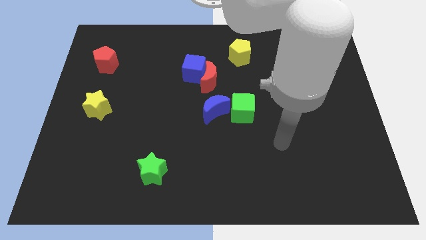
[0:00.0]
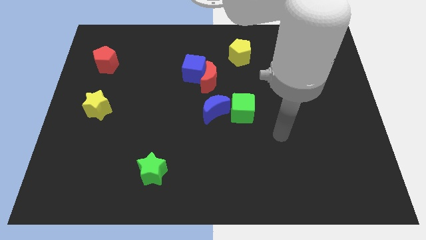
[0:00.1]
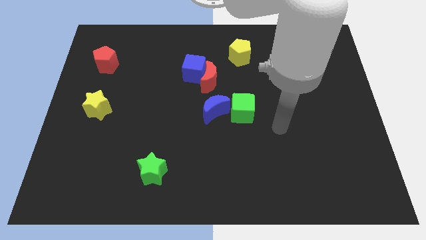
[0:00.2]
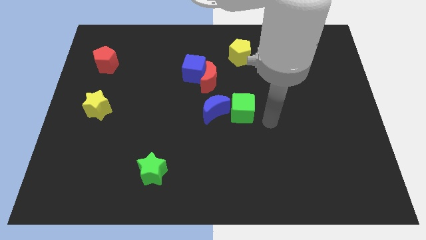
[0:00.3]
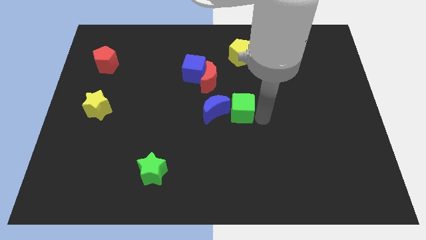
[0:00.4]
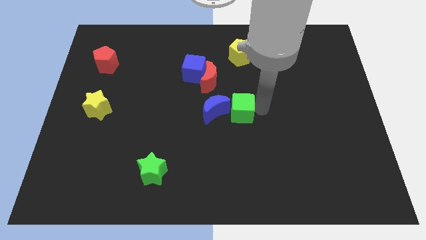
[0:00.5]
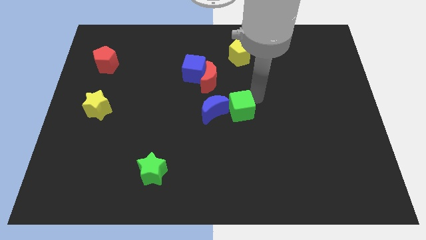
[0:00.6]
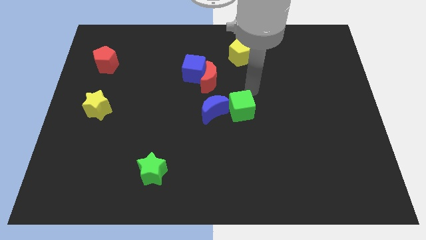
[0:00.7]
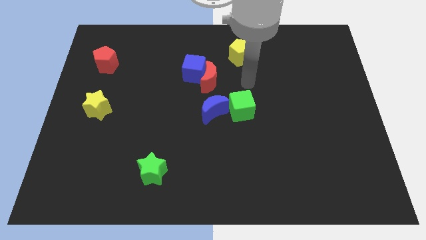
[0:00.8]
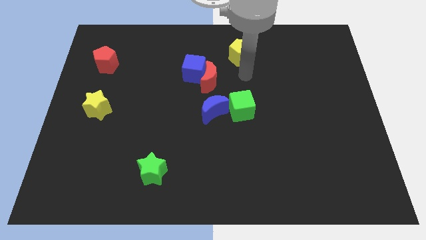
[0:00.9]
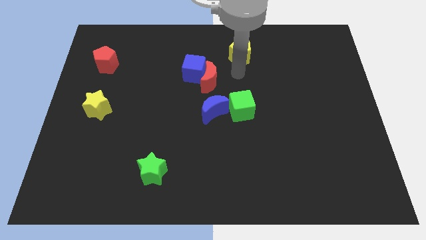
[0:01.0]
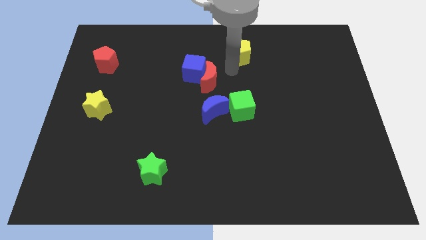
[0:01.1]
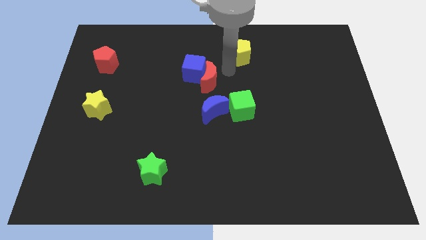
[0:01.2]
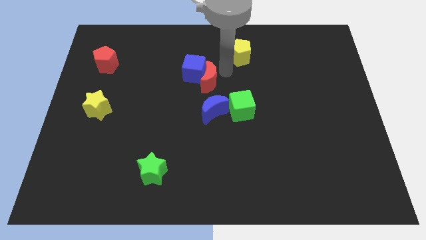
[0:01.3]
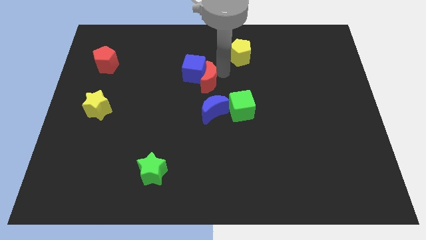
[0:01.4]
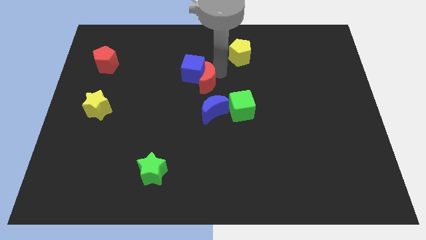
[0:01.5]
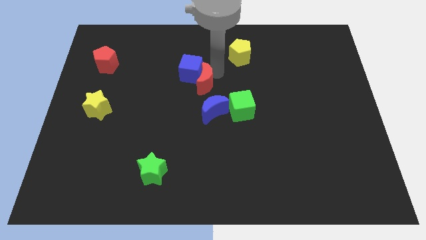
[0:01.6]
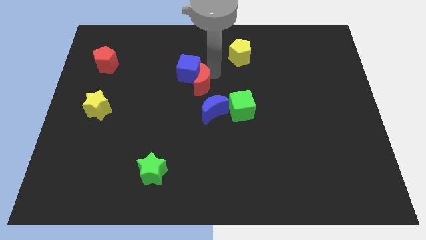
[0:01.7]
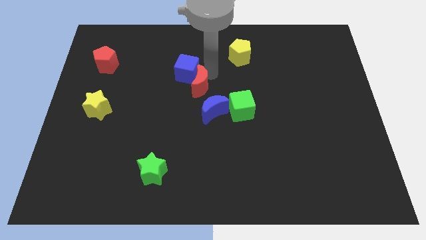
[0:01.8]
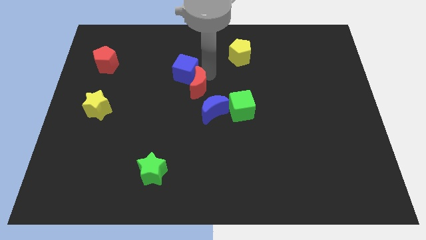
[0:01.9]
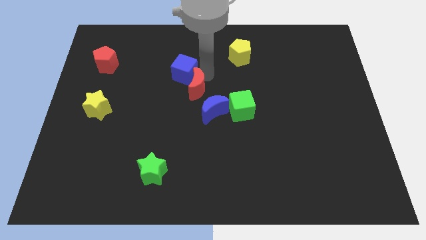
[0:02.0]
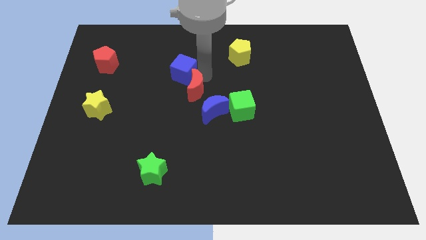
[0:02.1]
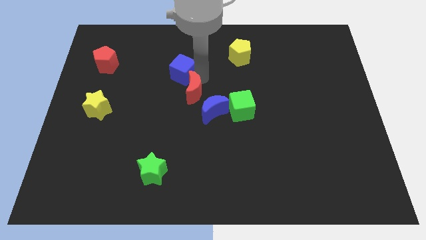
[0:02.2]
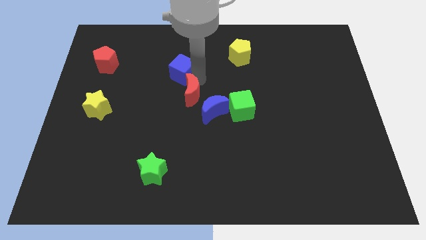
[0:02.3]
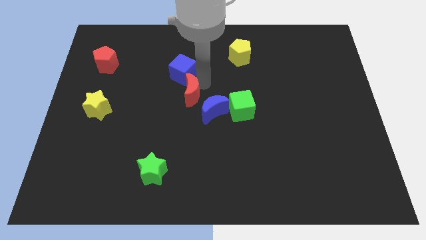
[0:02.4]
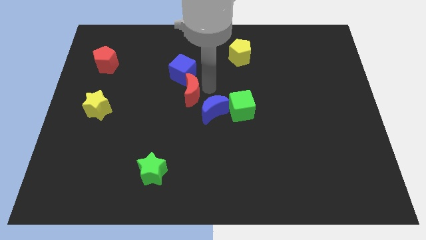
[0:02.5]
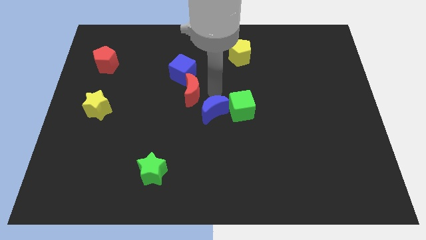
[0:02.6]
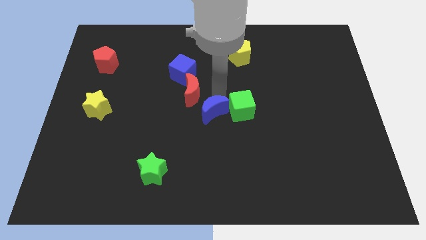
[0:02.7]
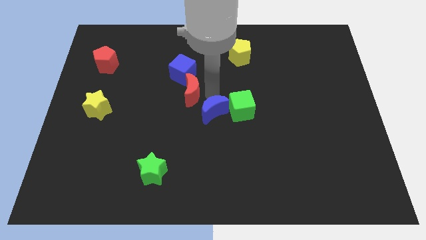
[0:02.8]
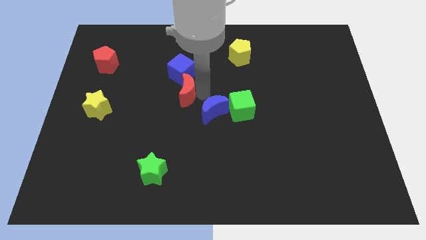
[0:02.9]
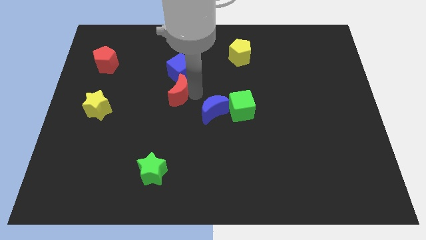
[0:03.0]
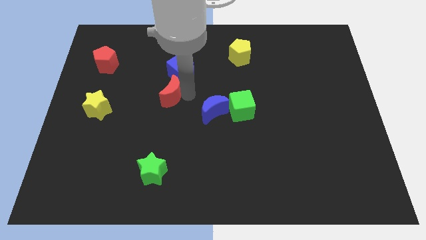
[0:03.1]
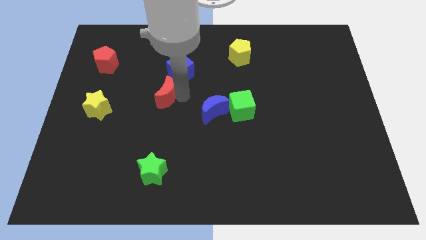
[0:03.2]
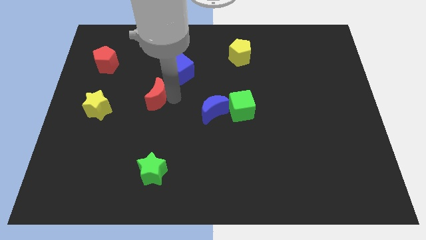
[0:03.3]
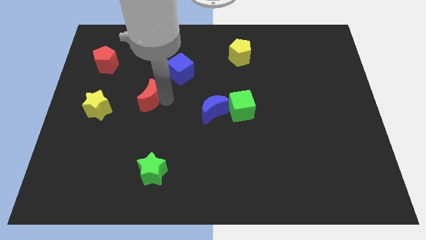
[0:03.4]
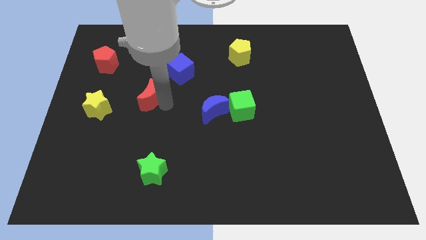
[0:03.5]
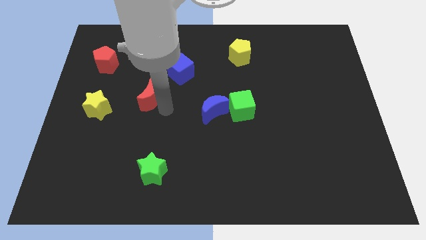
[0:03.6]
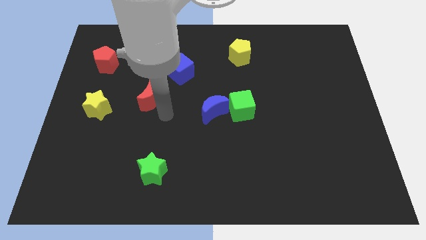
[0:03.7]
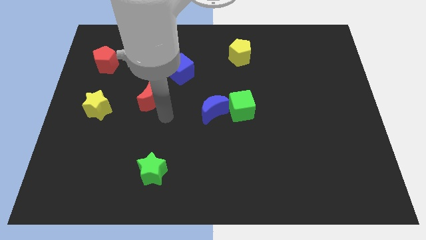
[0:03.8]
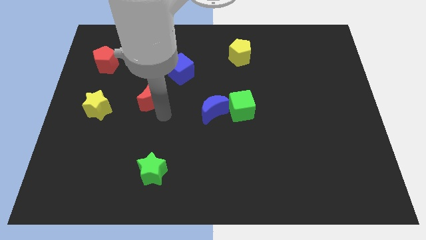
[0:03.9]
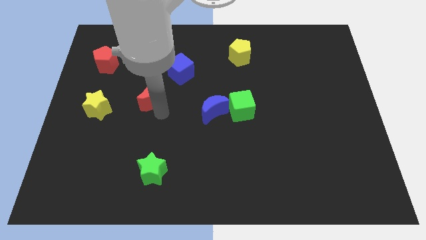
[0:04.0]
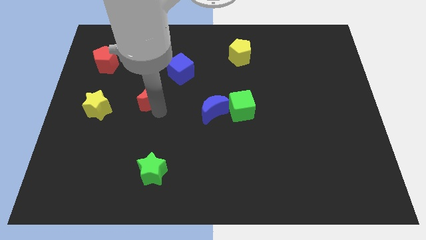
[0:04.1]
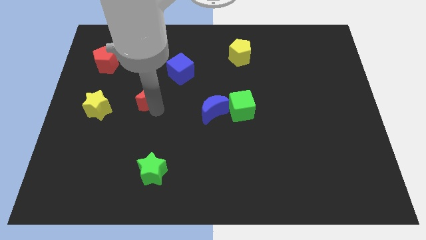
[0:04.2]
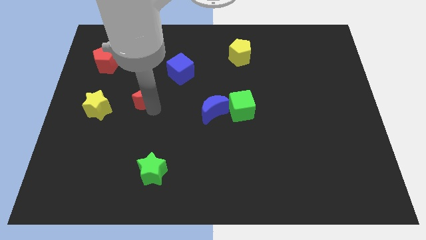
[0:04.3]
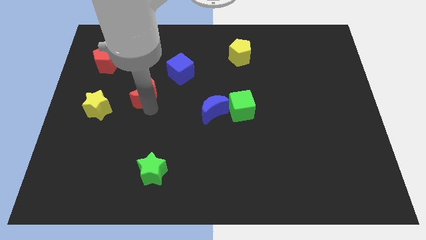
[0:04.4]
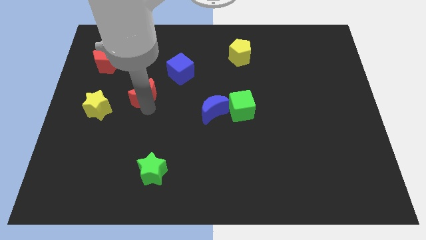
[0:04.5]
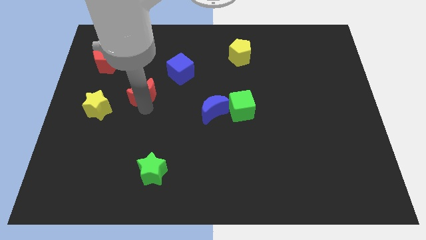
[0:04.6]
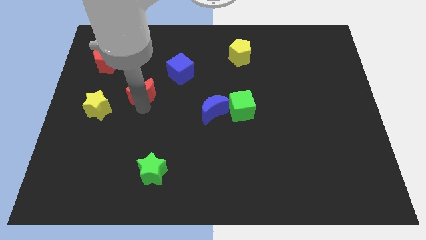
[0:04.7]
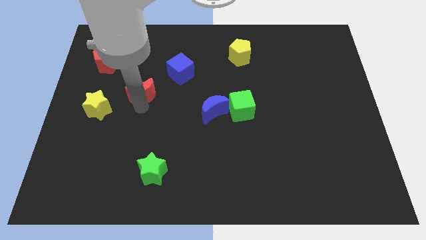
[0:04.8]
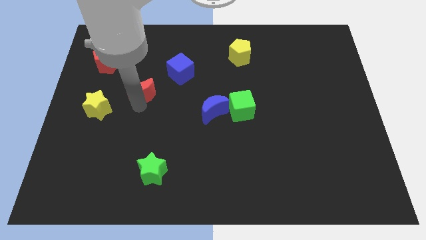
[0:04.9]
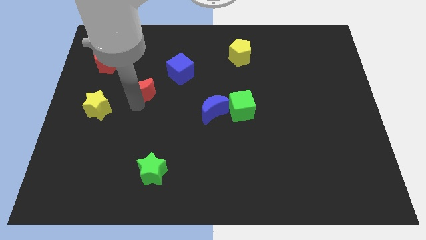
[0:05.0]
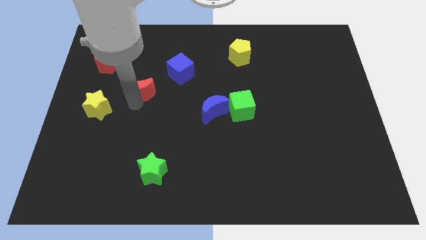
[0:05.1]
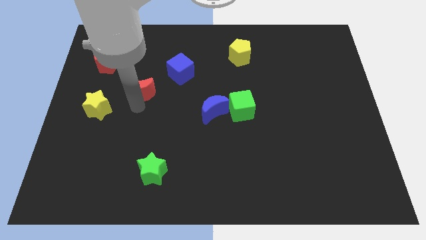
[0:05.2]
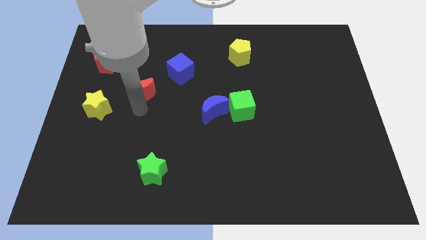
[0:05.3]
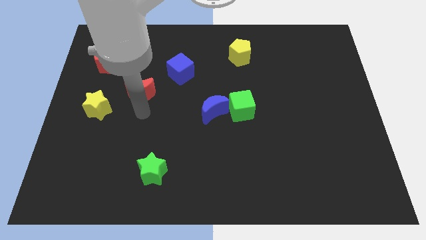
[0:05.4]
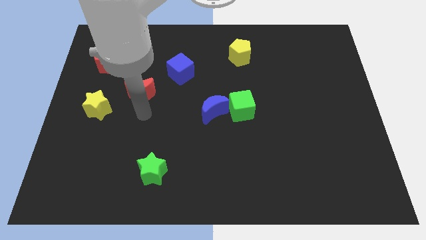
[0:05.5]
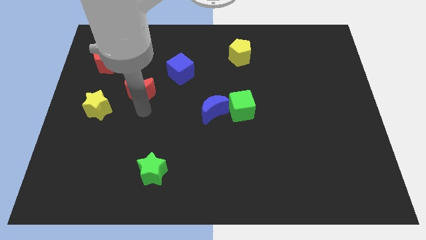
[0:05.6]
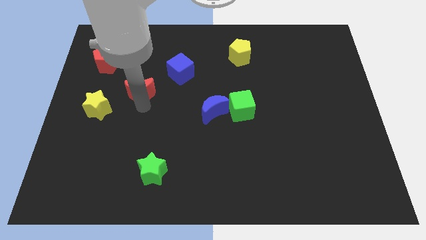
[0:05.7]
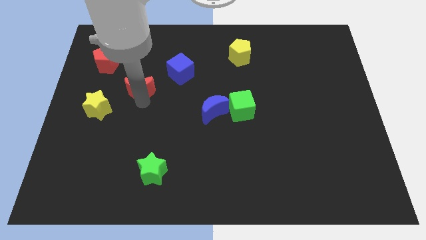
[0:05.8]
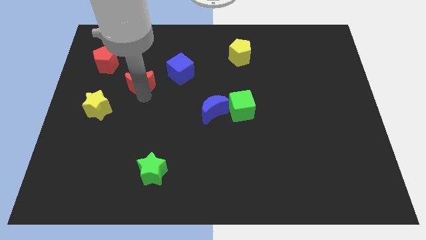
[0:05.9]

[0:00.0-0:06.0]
move the red moon to the bottom right side of the red pentagon

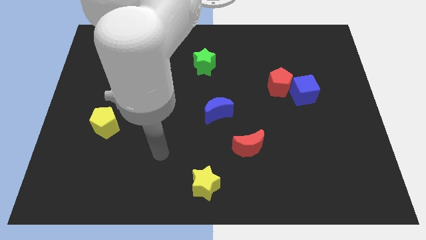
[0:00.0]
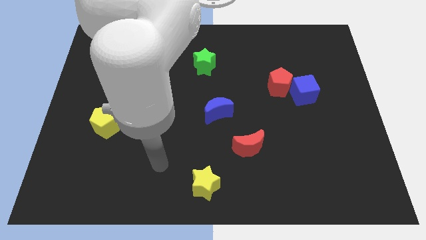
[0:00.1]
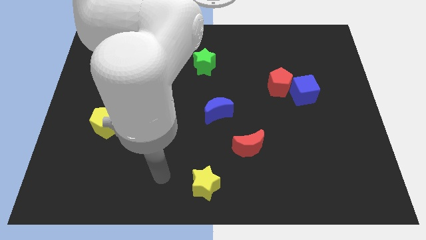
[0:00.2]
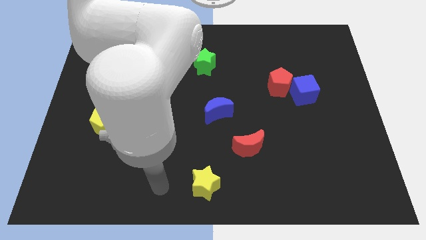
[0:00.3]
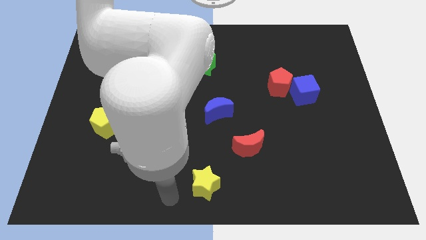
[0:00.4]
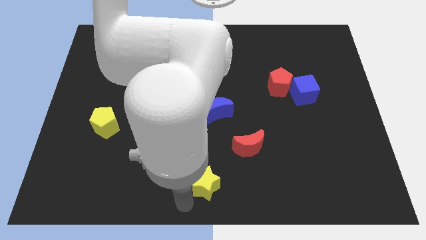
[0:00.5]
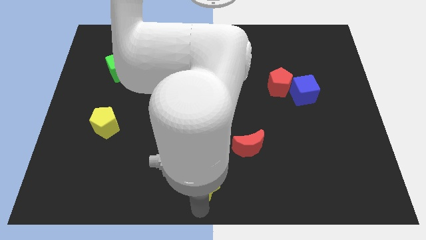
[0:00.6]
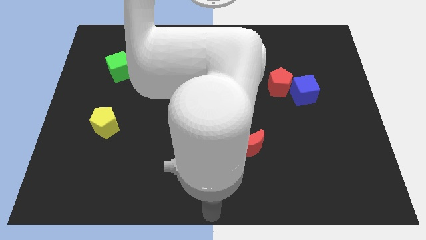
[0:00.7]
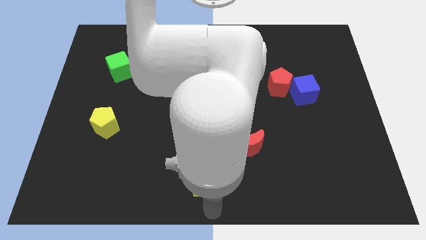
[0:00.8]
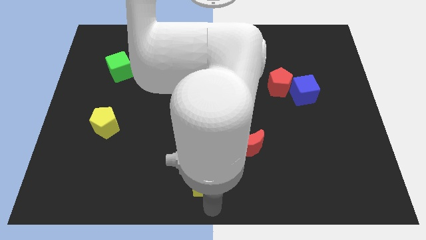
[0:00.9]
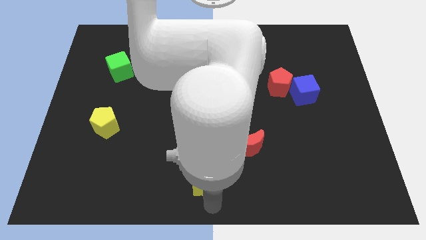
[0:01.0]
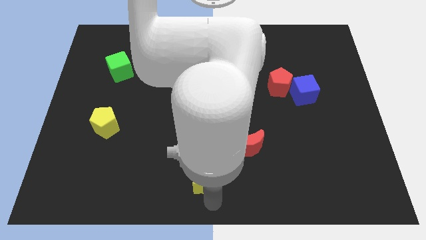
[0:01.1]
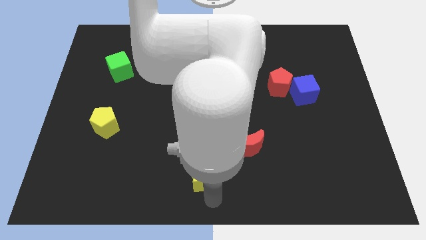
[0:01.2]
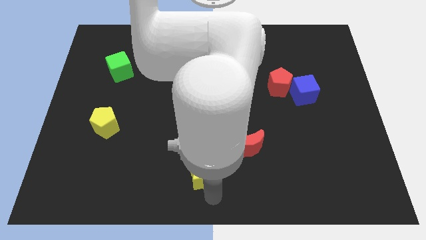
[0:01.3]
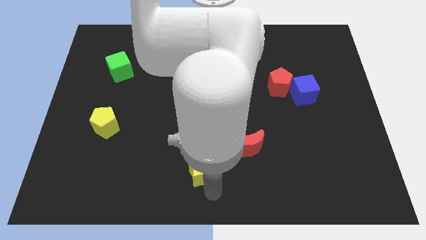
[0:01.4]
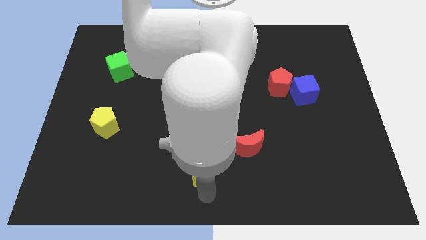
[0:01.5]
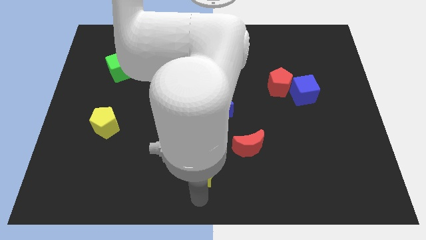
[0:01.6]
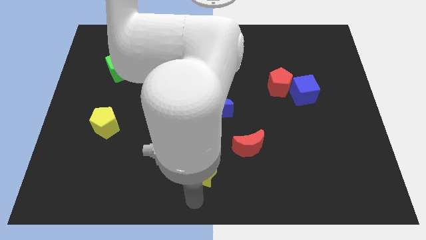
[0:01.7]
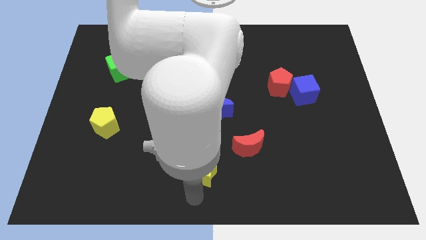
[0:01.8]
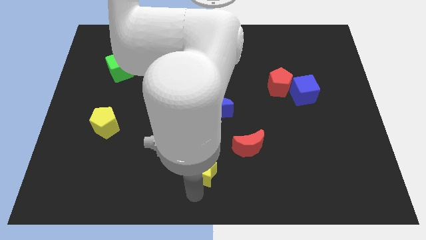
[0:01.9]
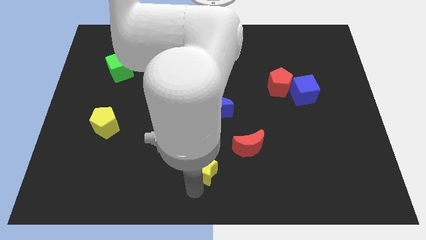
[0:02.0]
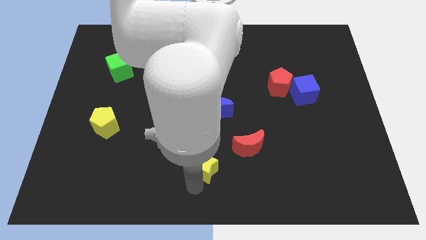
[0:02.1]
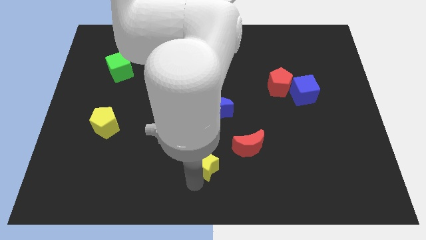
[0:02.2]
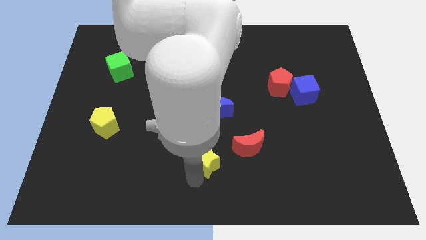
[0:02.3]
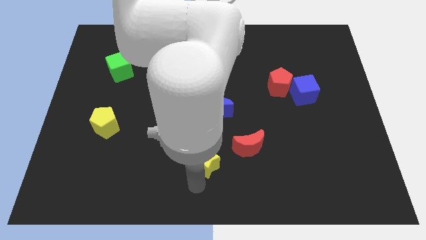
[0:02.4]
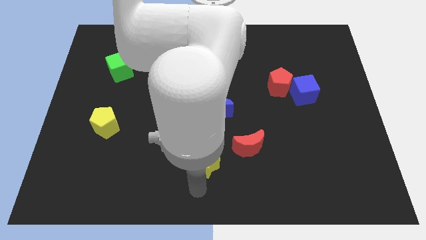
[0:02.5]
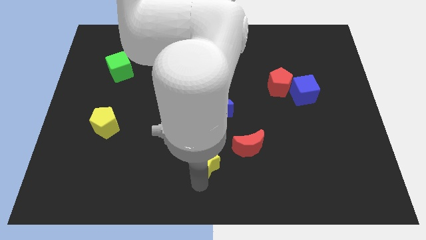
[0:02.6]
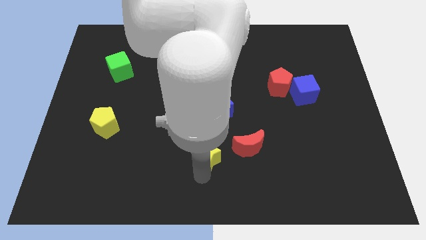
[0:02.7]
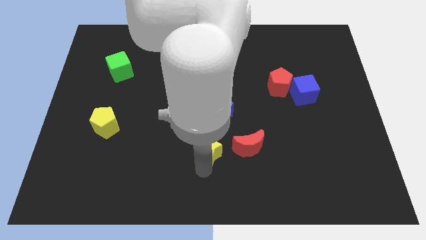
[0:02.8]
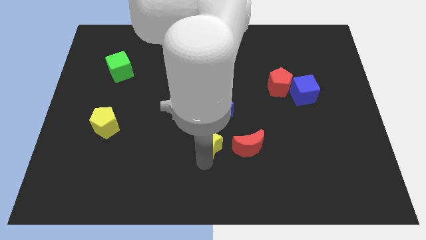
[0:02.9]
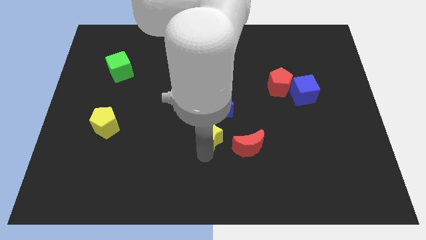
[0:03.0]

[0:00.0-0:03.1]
move the yellow star to the top left side of the red moon
